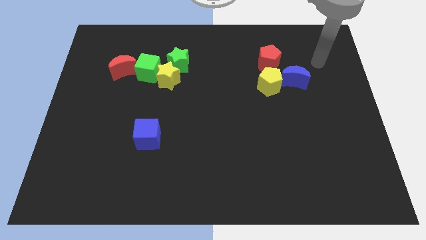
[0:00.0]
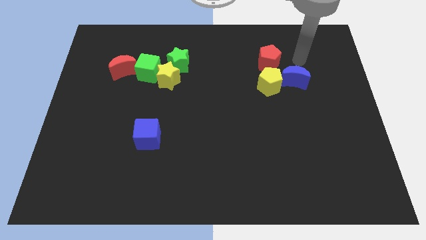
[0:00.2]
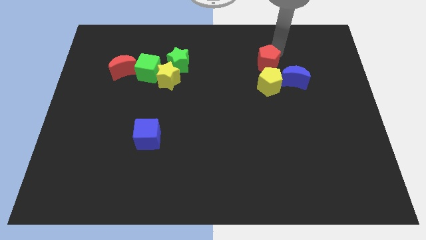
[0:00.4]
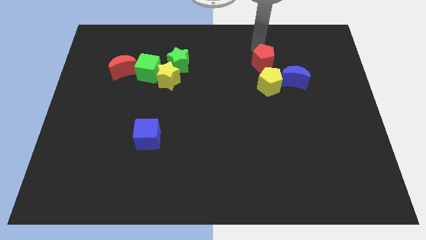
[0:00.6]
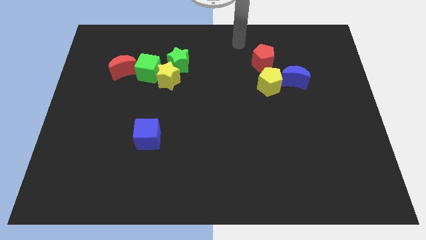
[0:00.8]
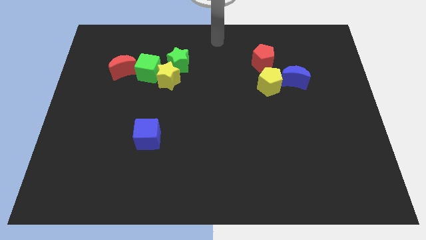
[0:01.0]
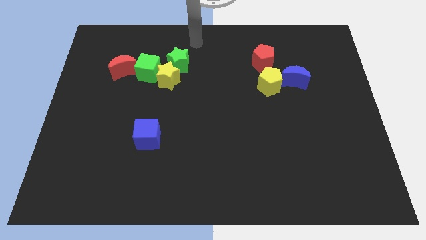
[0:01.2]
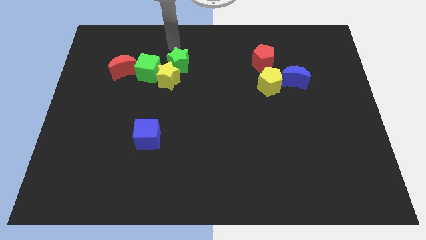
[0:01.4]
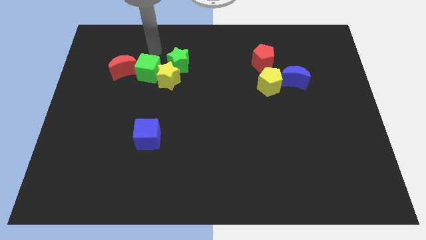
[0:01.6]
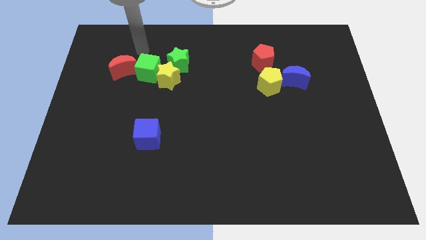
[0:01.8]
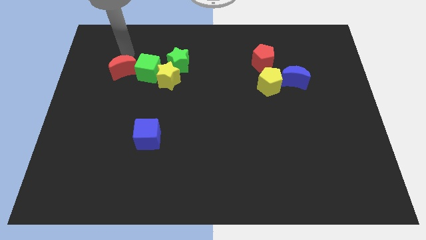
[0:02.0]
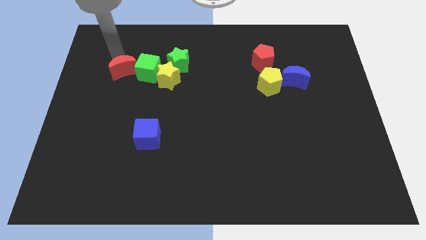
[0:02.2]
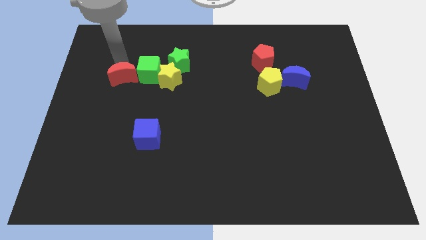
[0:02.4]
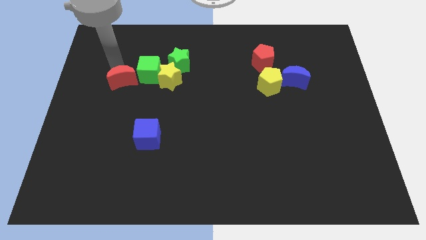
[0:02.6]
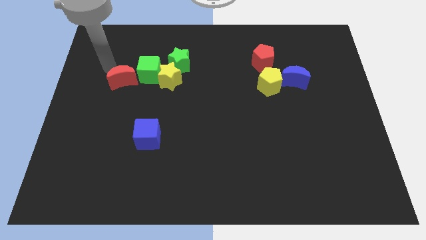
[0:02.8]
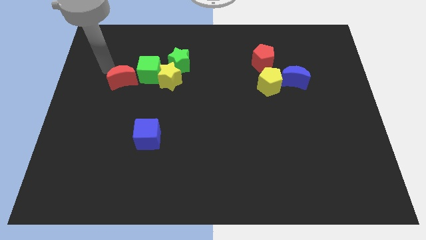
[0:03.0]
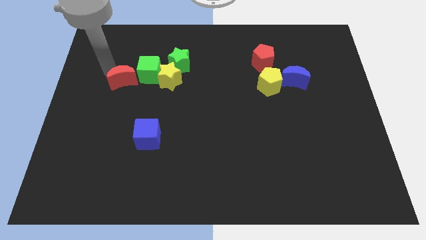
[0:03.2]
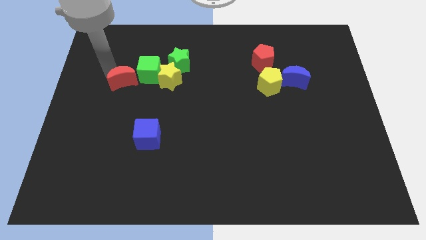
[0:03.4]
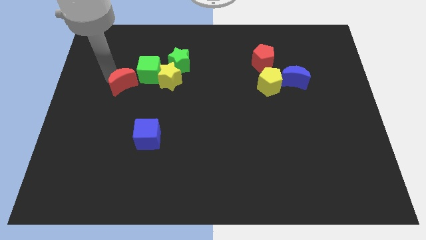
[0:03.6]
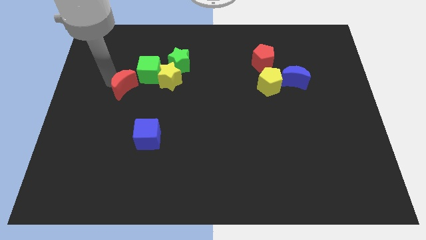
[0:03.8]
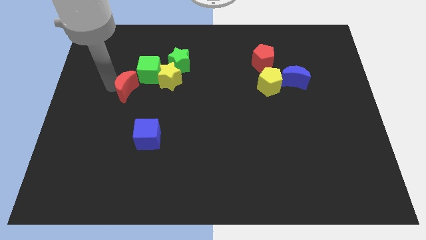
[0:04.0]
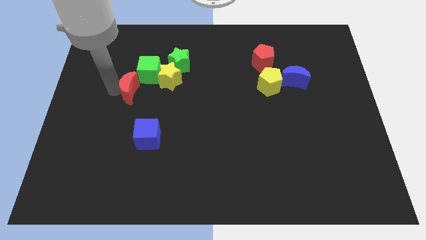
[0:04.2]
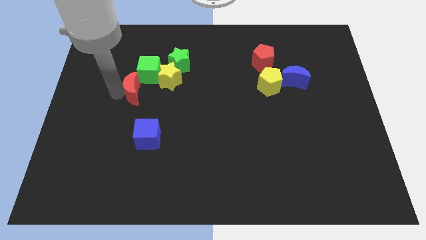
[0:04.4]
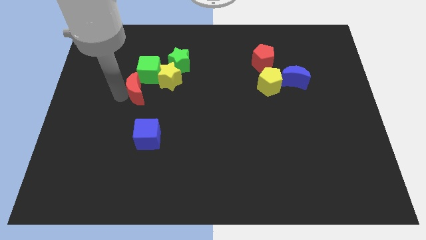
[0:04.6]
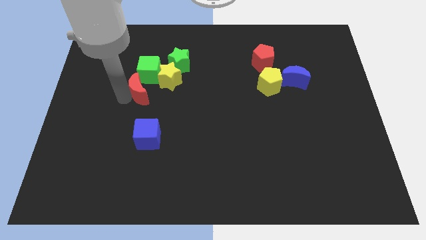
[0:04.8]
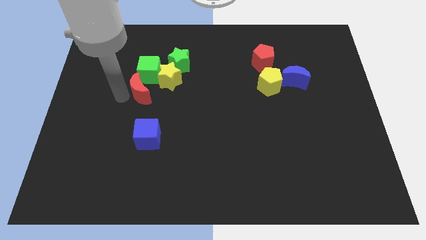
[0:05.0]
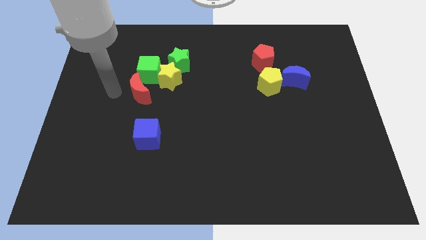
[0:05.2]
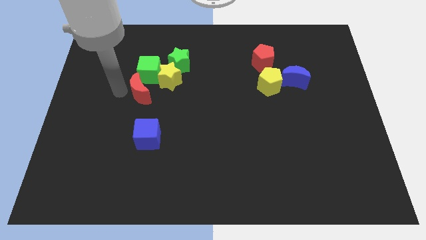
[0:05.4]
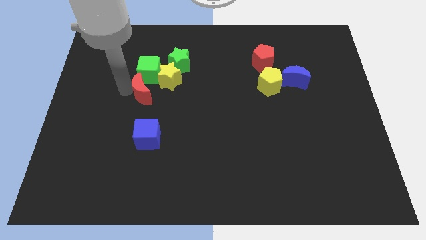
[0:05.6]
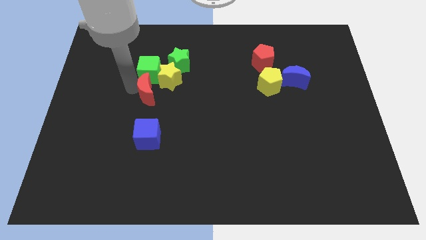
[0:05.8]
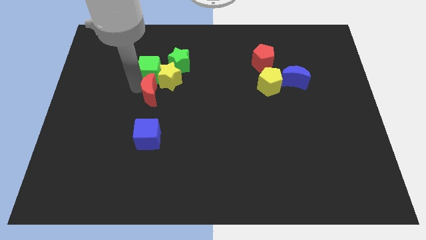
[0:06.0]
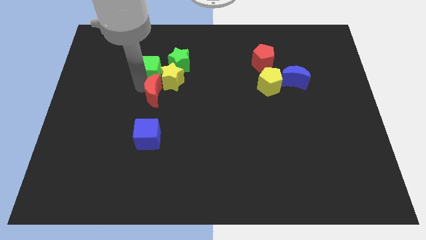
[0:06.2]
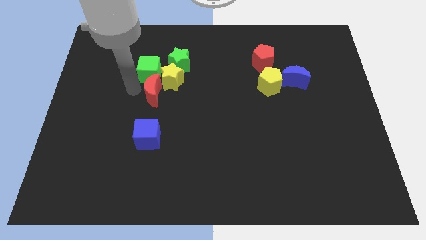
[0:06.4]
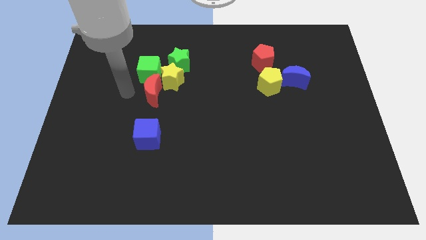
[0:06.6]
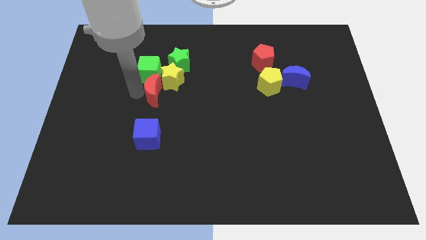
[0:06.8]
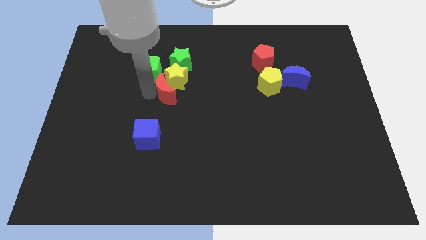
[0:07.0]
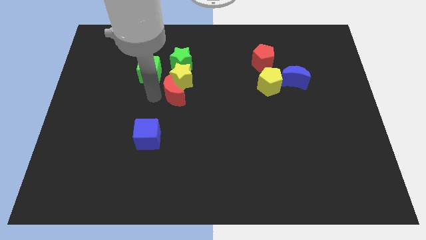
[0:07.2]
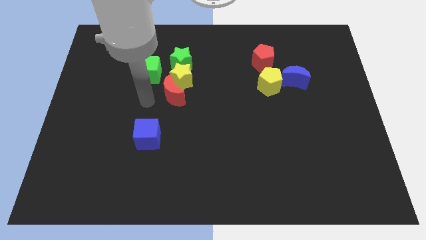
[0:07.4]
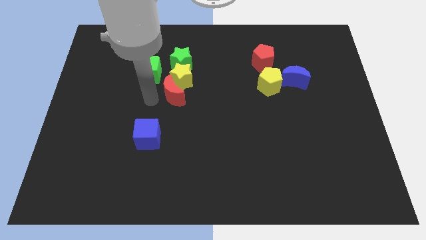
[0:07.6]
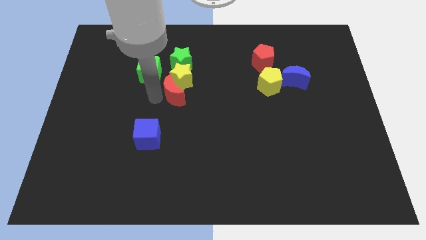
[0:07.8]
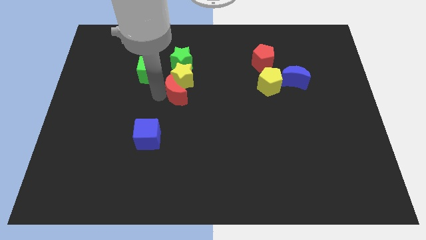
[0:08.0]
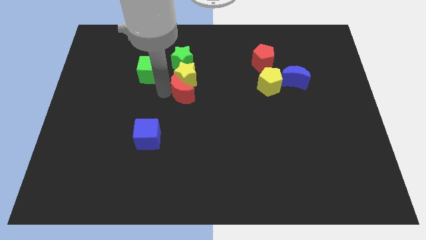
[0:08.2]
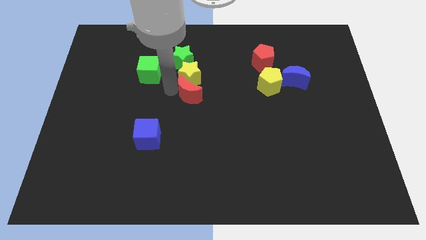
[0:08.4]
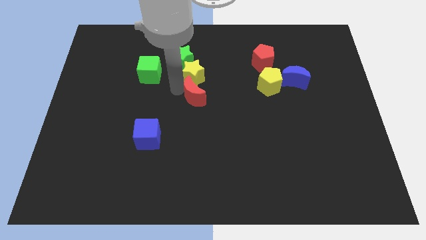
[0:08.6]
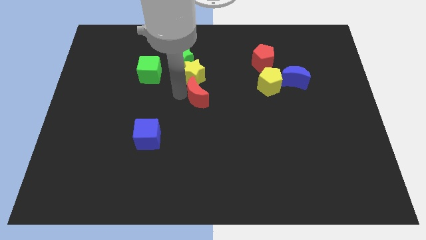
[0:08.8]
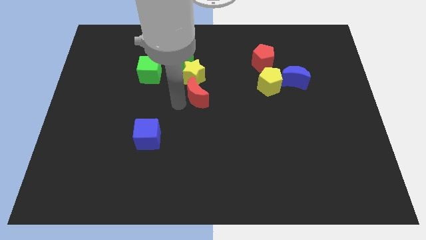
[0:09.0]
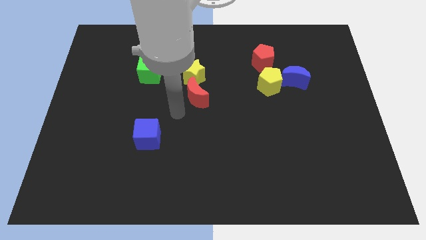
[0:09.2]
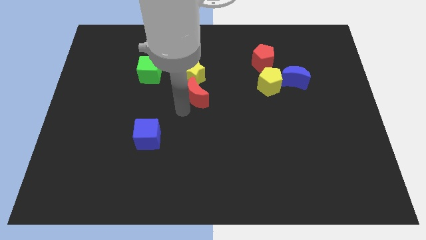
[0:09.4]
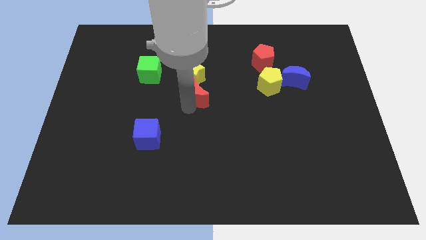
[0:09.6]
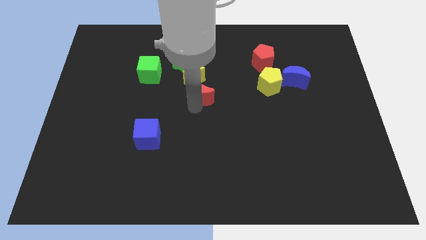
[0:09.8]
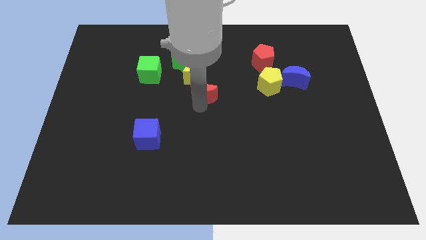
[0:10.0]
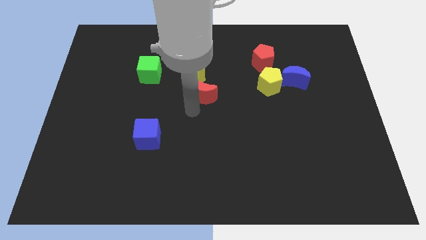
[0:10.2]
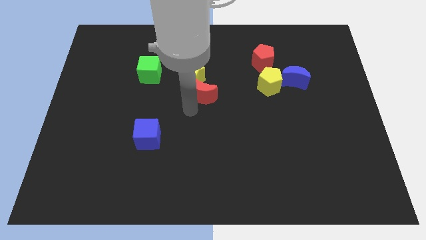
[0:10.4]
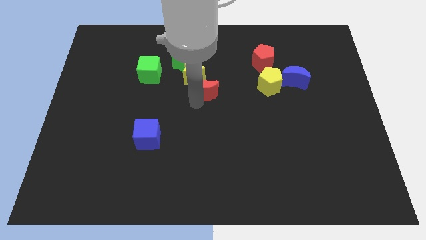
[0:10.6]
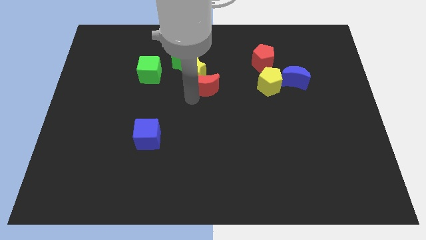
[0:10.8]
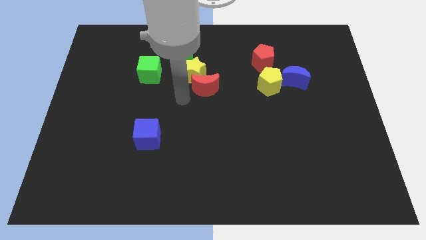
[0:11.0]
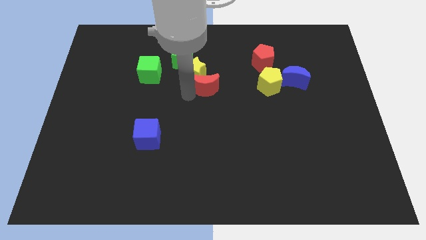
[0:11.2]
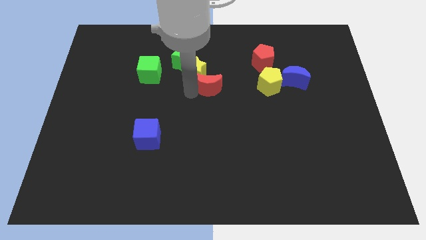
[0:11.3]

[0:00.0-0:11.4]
push the red moon to the right

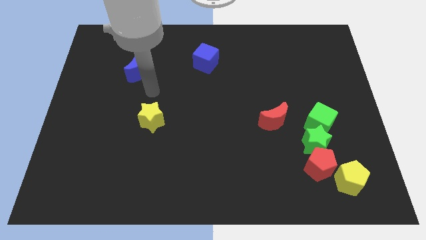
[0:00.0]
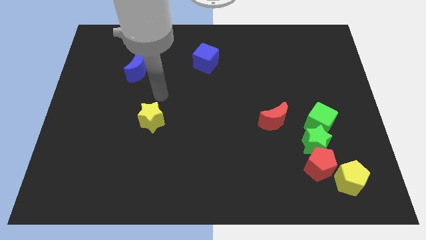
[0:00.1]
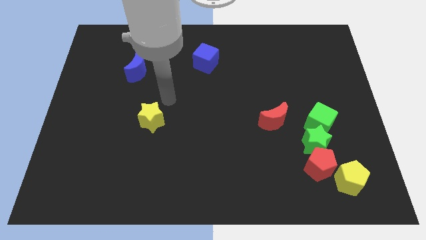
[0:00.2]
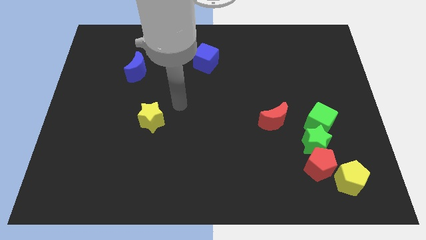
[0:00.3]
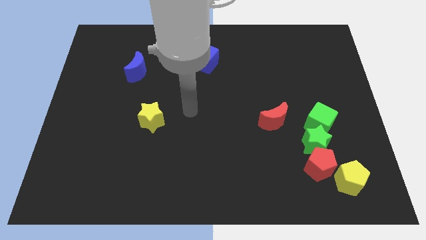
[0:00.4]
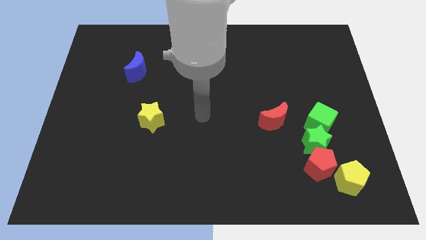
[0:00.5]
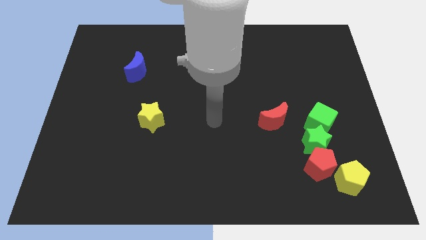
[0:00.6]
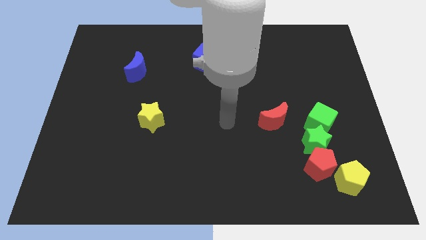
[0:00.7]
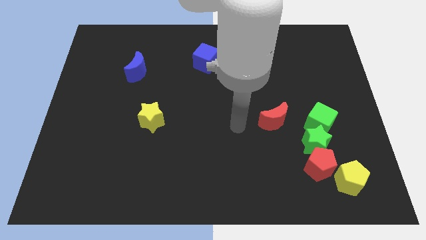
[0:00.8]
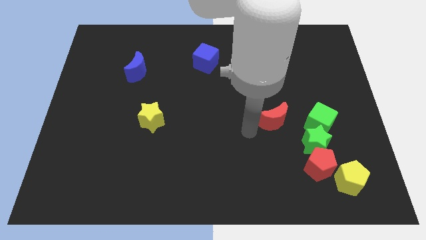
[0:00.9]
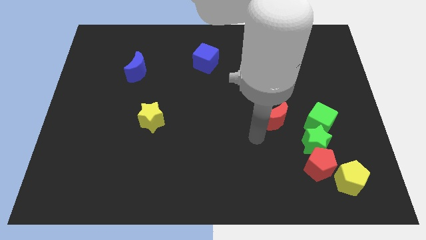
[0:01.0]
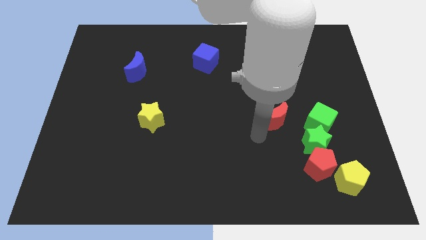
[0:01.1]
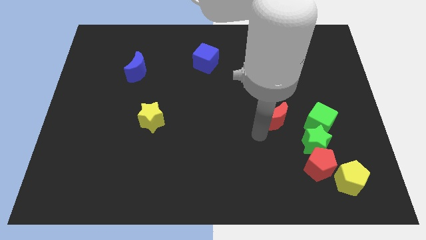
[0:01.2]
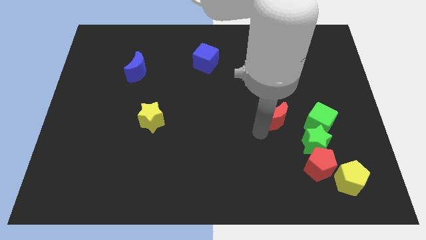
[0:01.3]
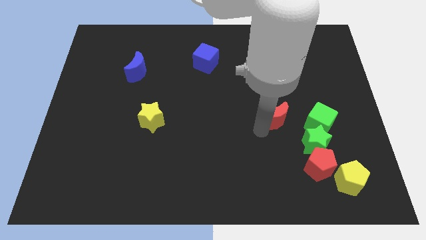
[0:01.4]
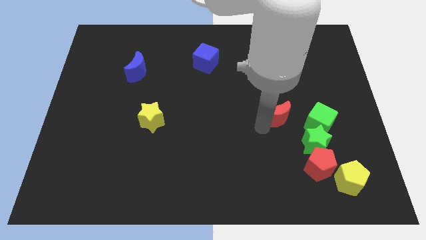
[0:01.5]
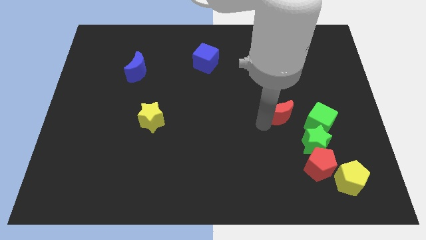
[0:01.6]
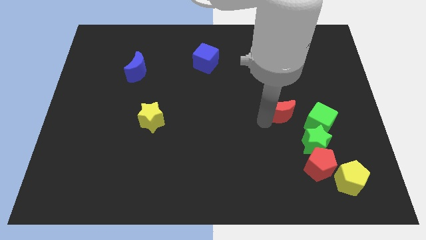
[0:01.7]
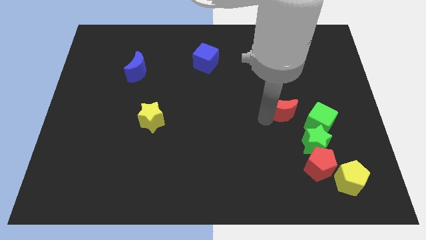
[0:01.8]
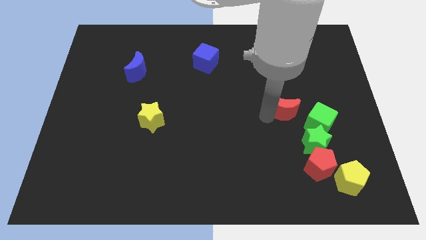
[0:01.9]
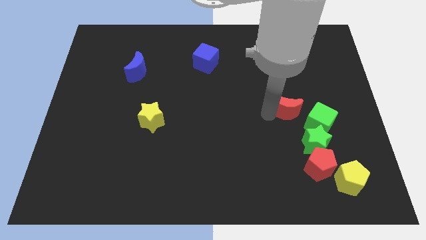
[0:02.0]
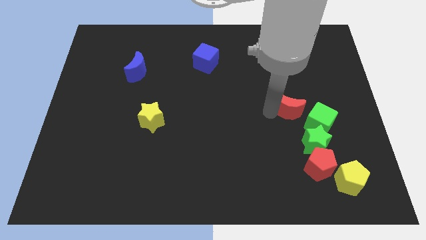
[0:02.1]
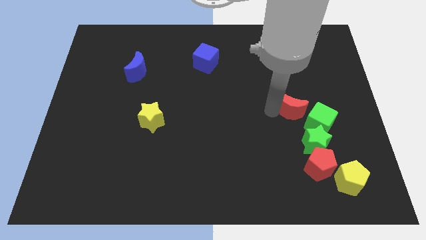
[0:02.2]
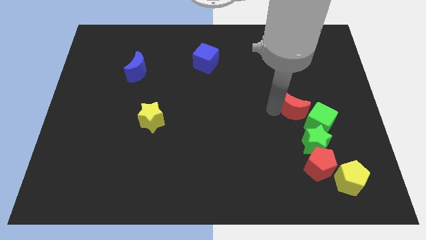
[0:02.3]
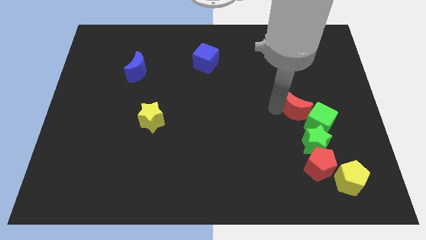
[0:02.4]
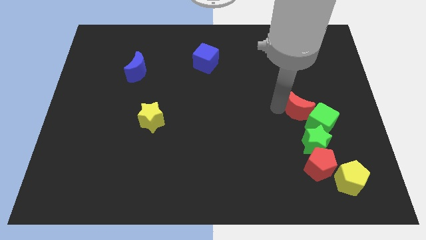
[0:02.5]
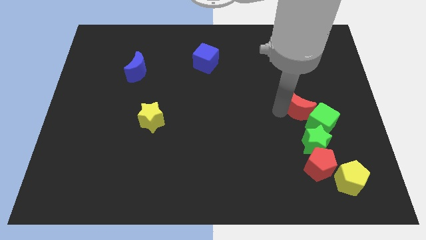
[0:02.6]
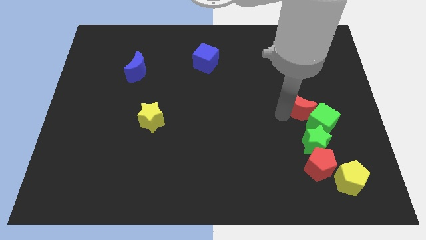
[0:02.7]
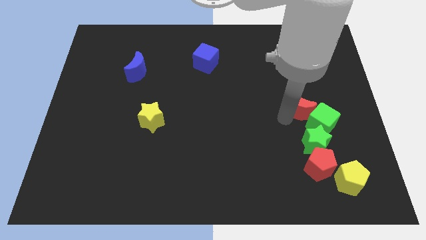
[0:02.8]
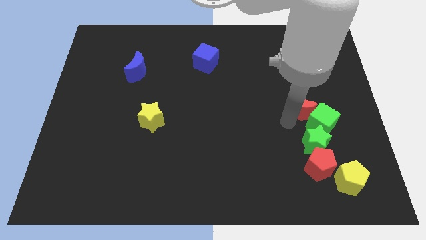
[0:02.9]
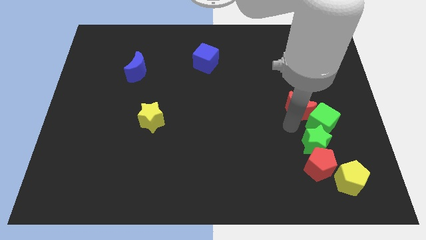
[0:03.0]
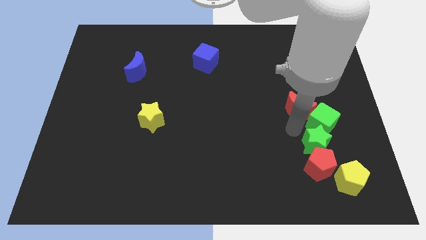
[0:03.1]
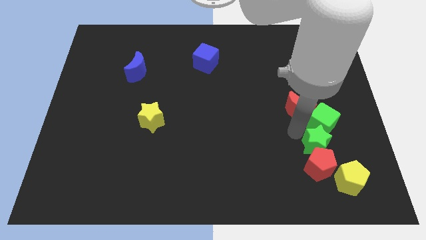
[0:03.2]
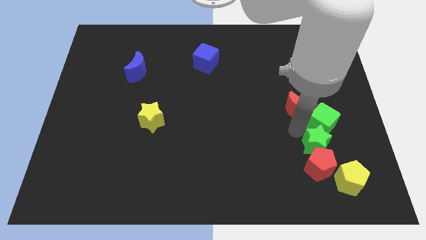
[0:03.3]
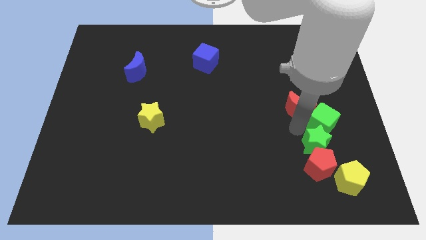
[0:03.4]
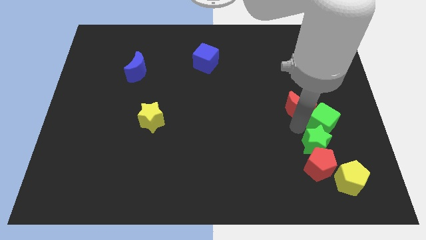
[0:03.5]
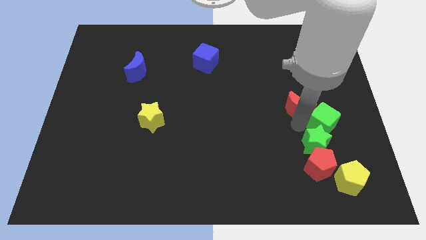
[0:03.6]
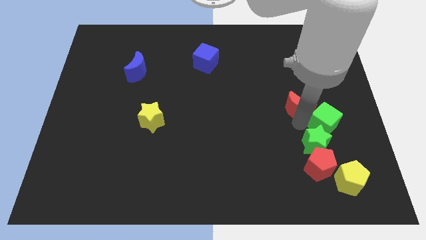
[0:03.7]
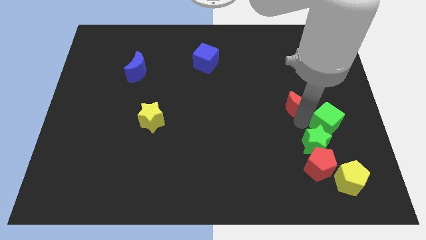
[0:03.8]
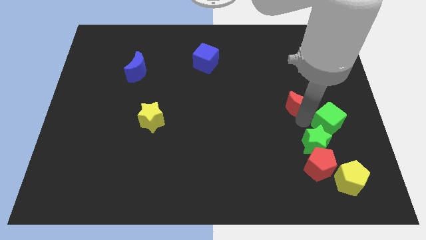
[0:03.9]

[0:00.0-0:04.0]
push the red moon upwards and to the right a bit
